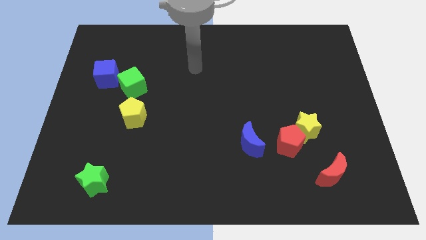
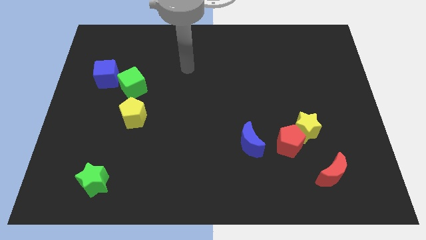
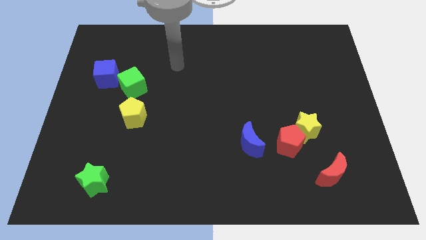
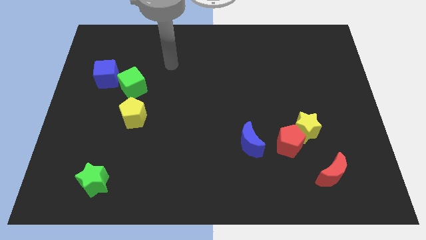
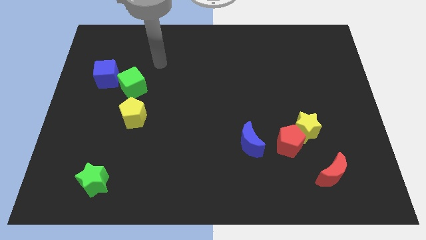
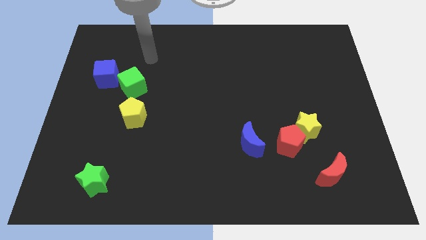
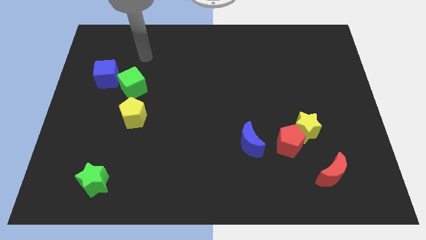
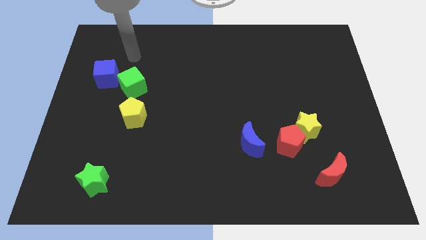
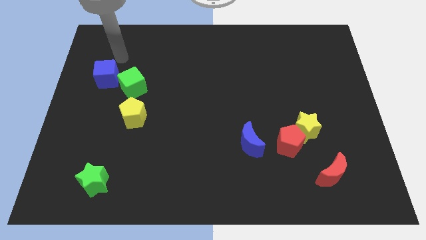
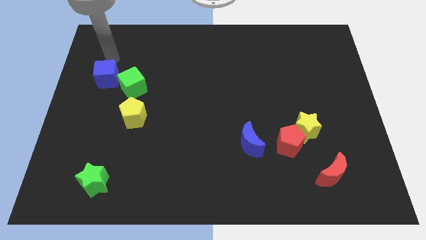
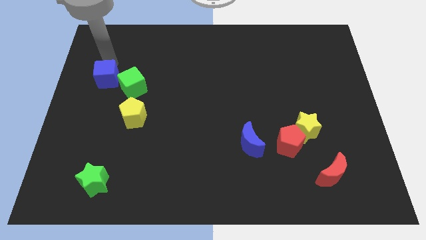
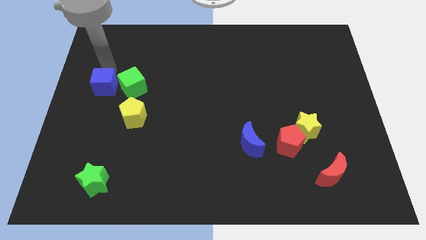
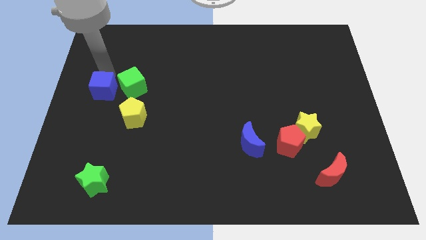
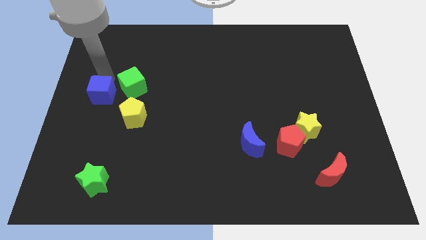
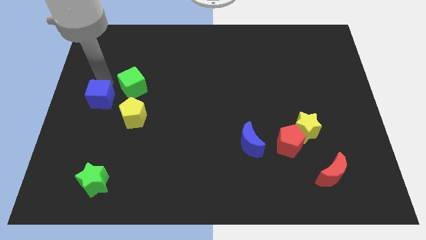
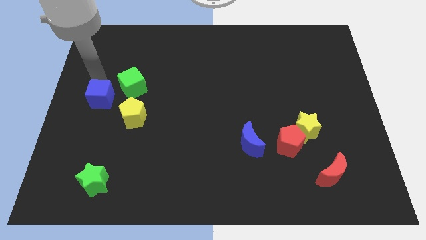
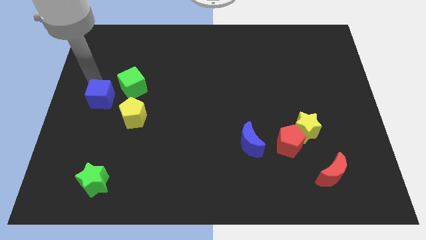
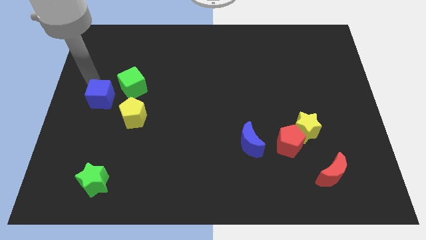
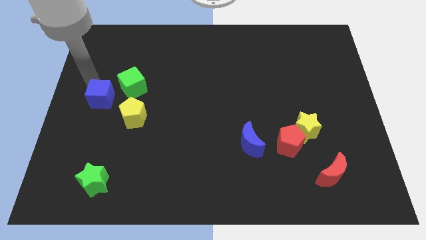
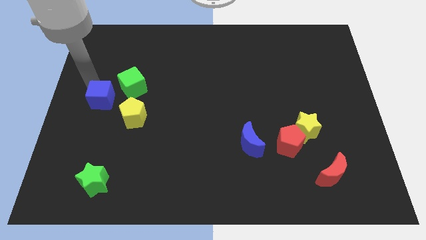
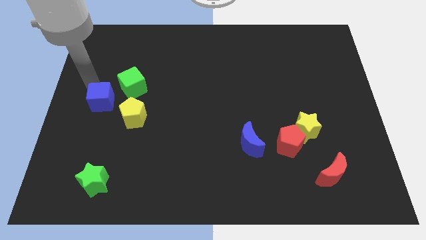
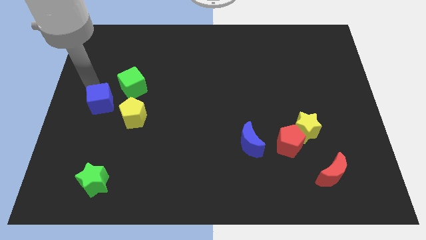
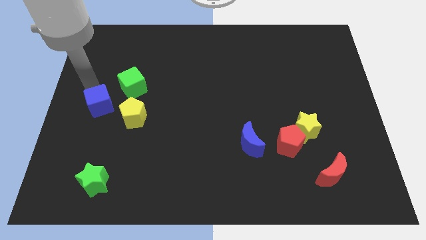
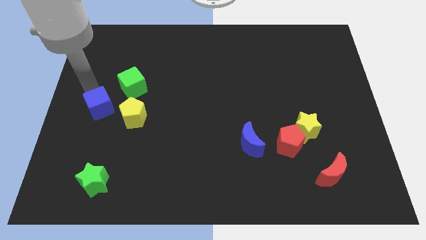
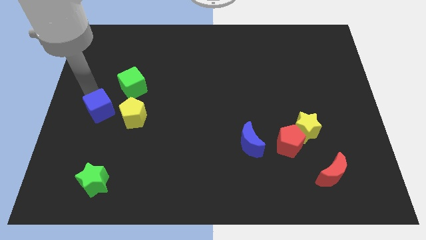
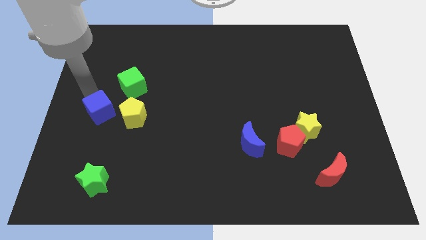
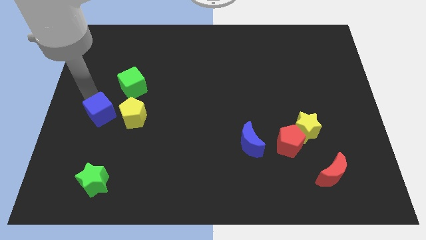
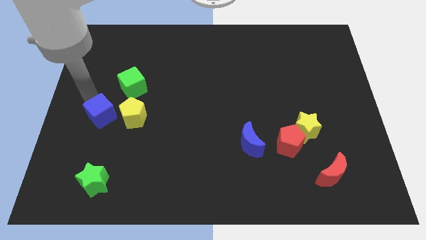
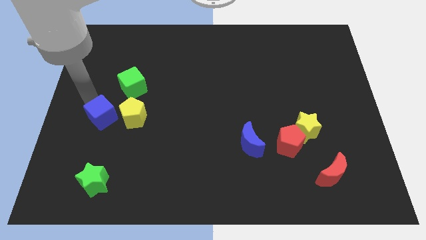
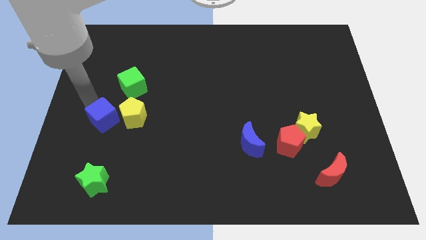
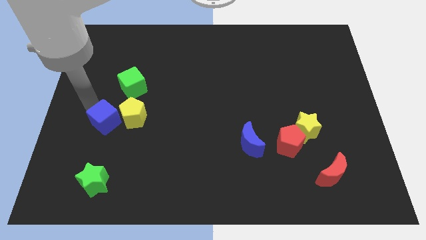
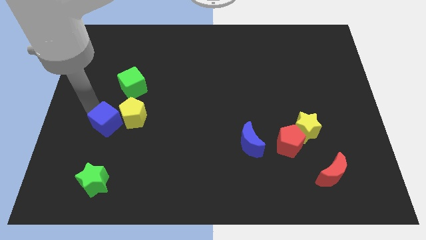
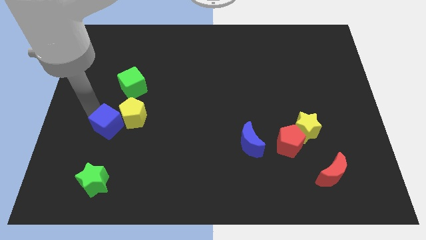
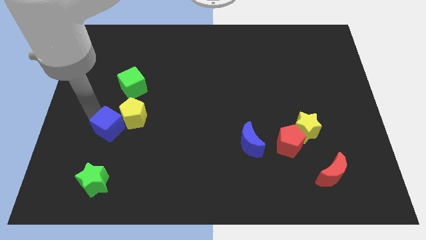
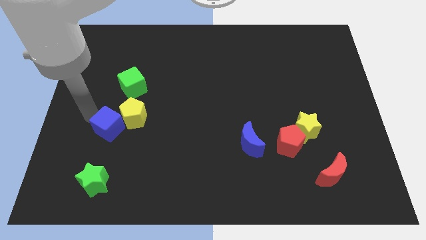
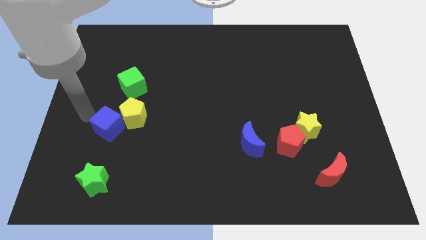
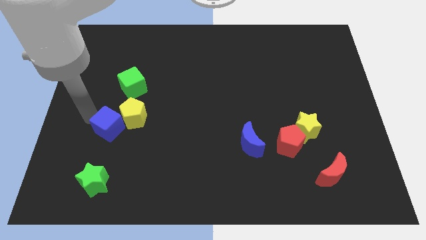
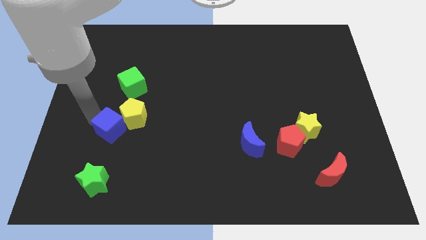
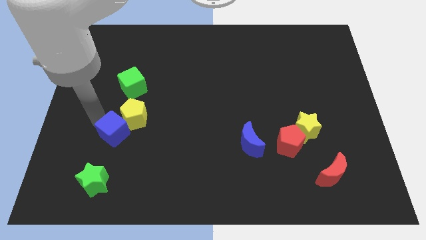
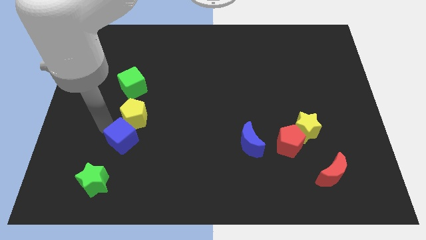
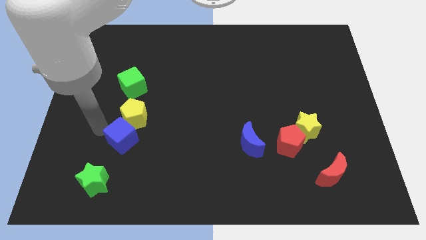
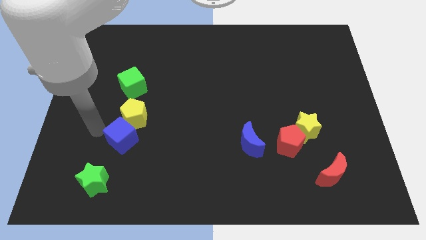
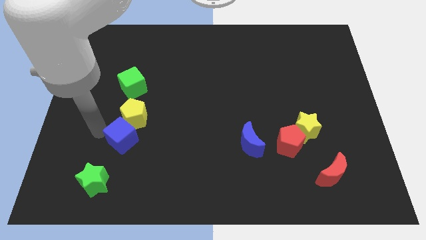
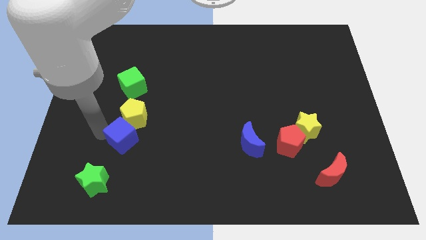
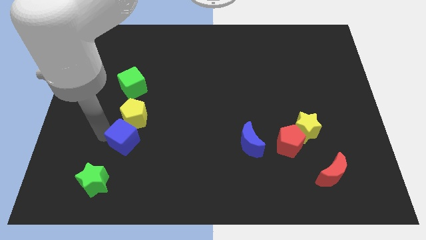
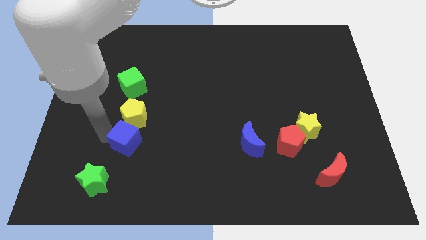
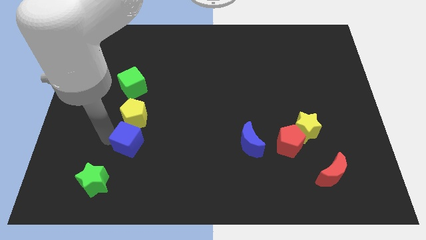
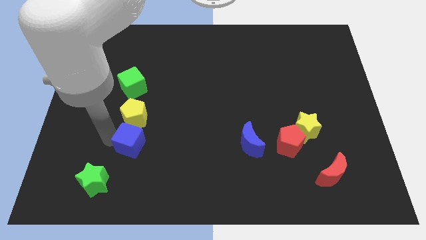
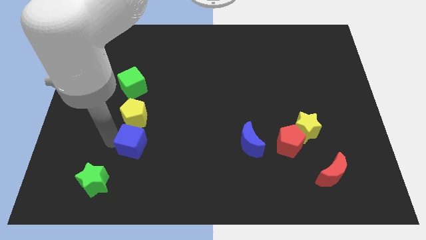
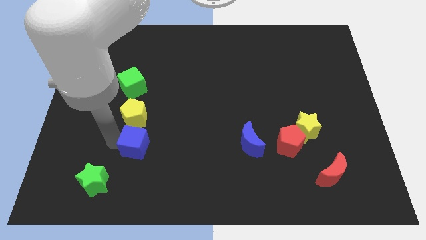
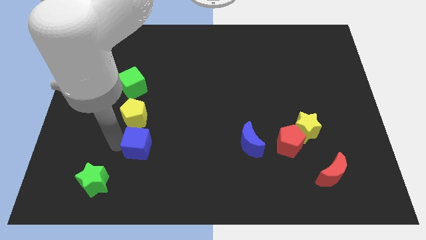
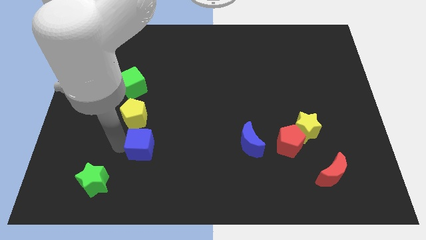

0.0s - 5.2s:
move the blue cube down and then right

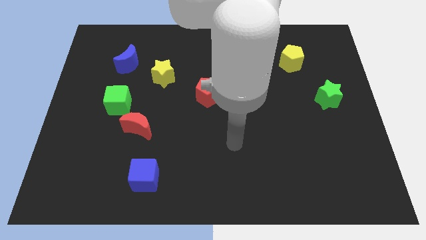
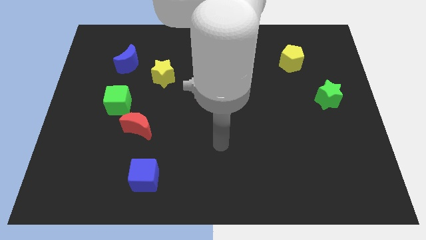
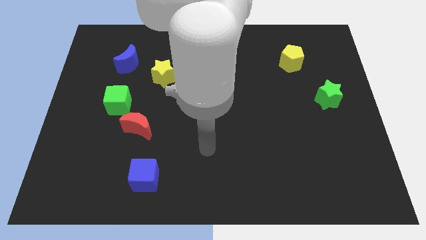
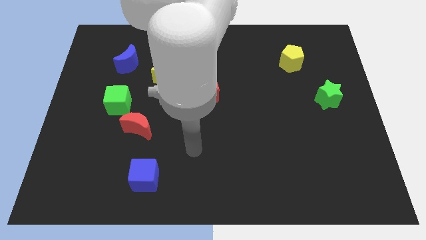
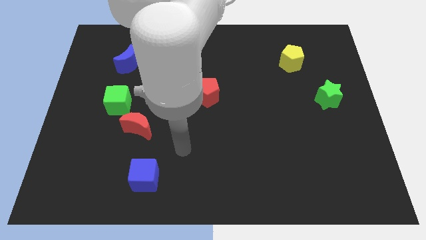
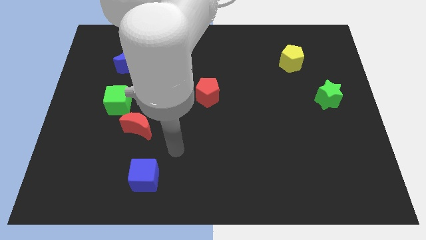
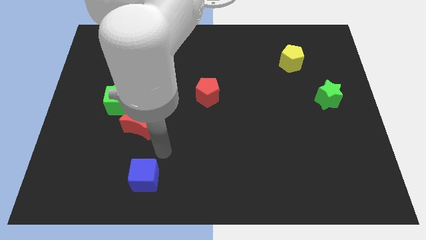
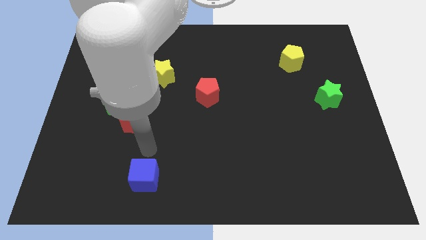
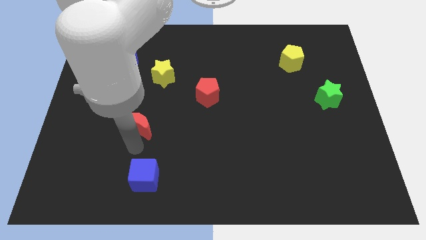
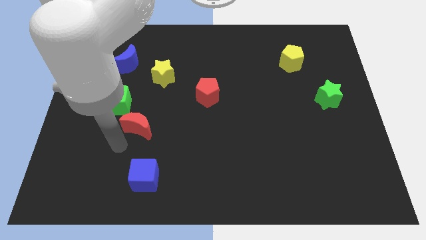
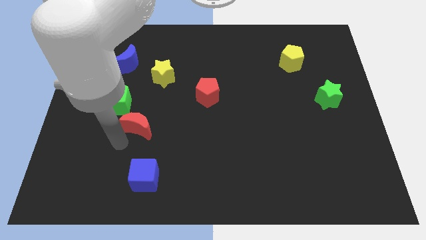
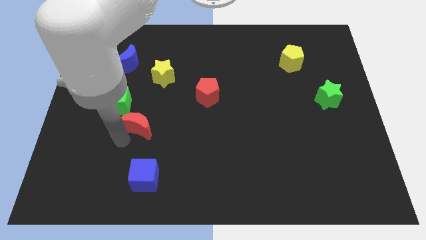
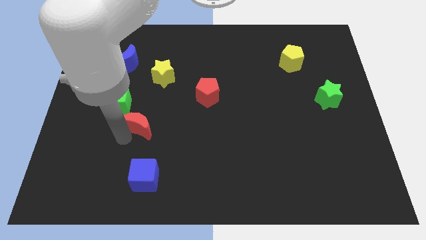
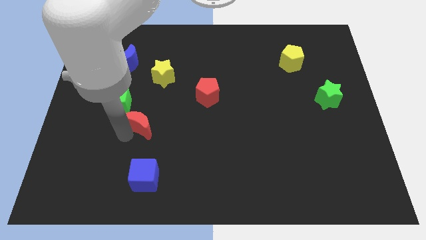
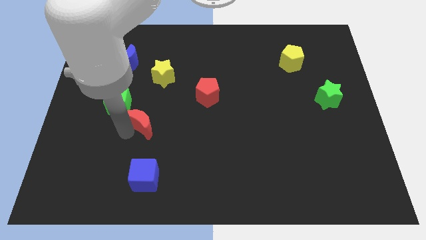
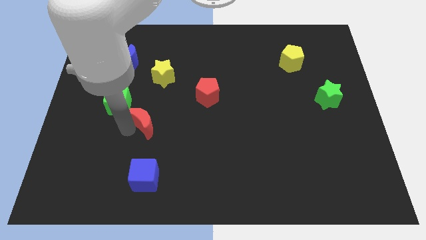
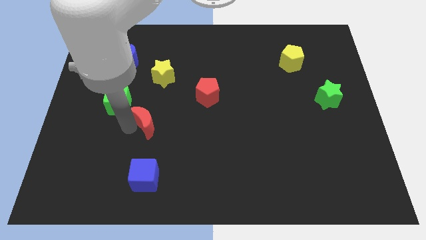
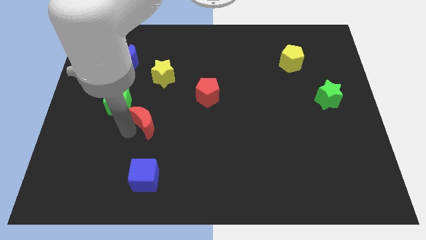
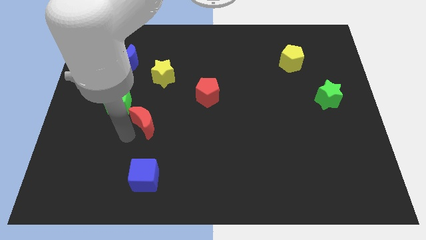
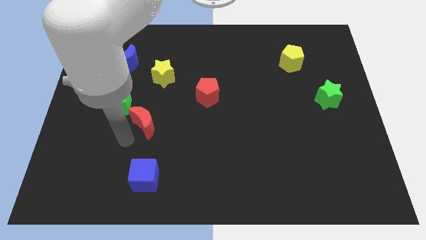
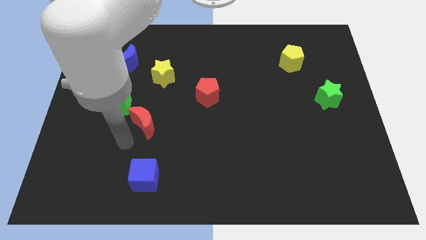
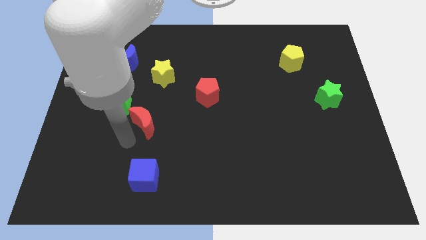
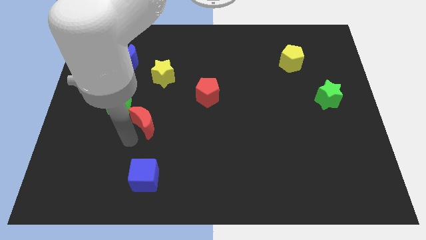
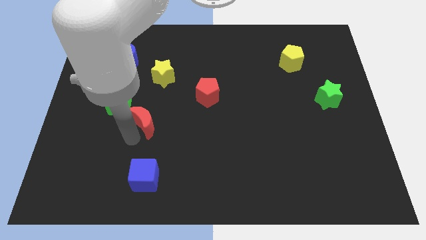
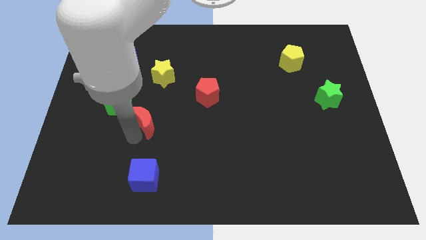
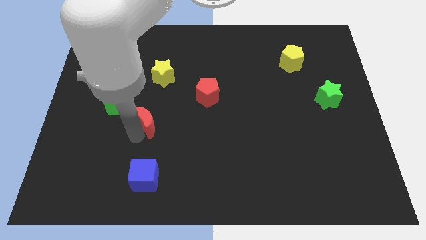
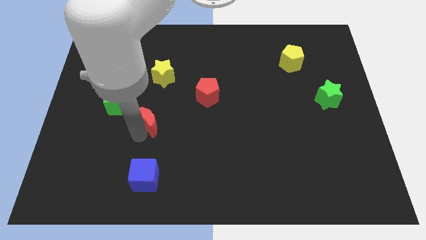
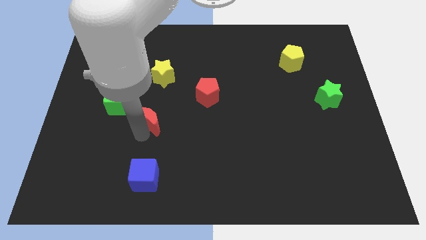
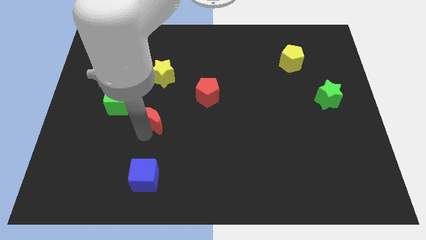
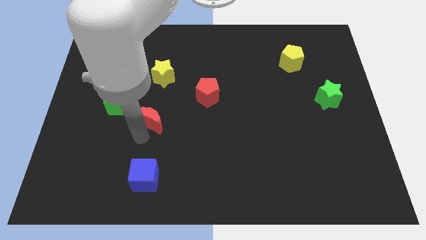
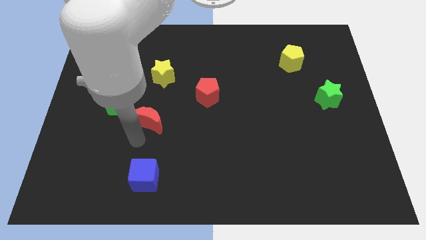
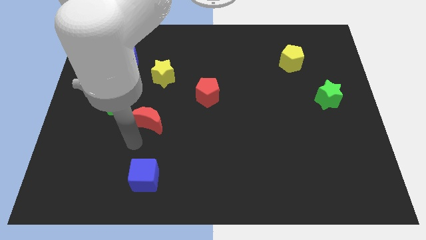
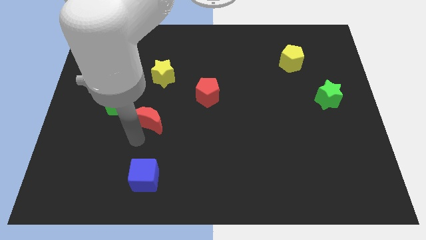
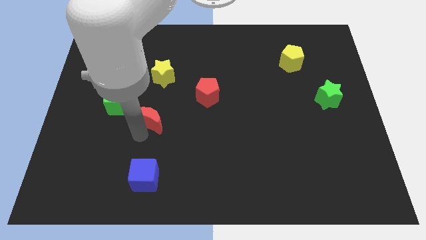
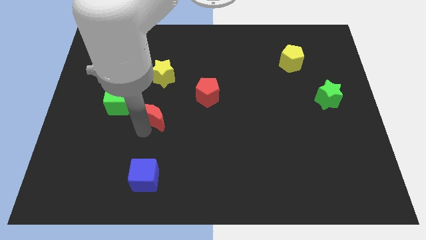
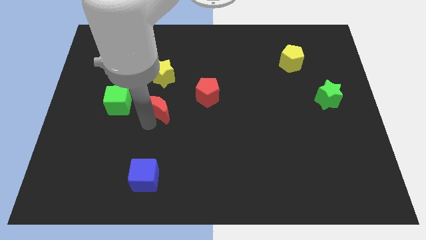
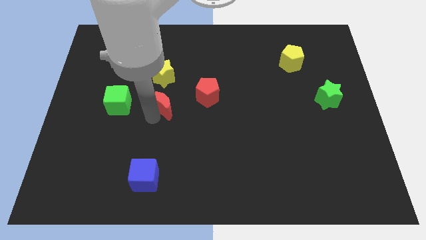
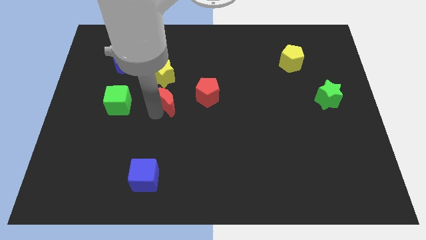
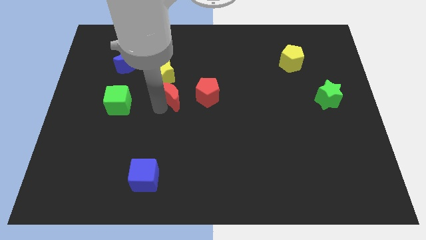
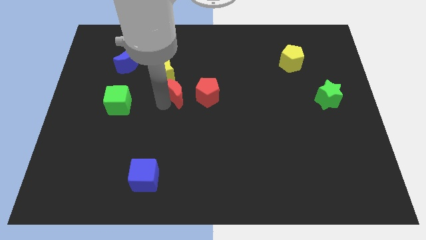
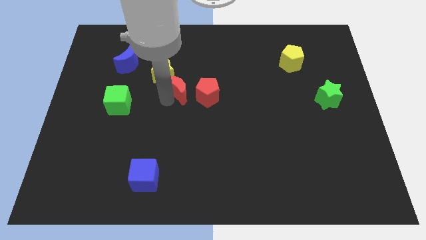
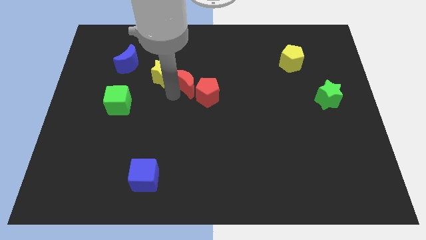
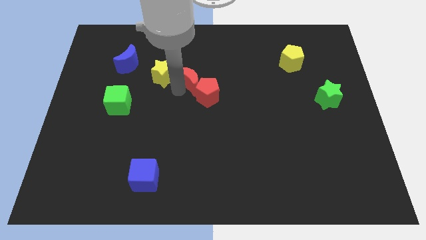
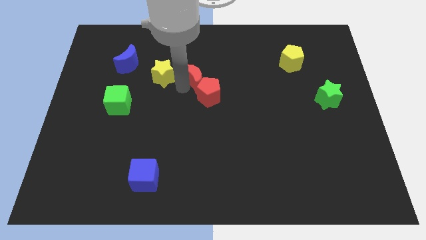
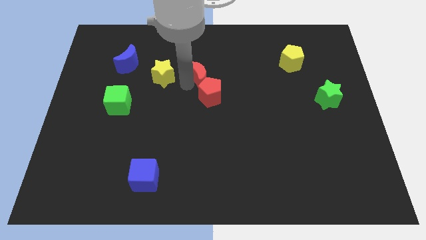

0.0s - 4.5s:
push the red moon diagonally upwards and to the right
